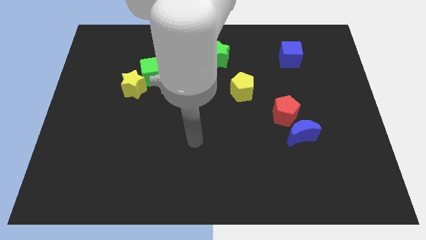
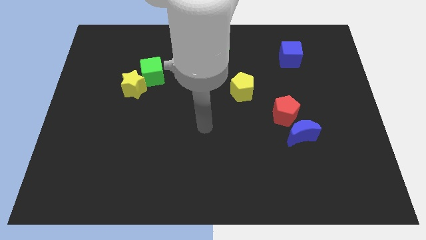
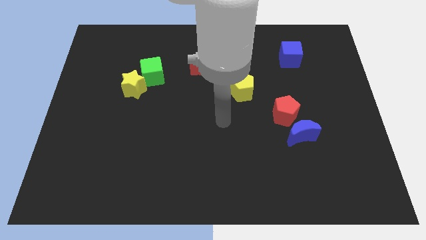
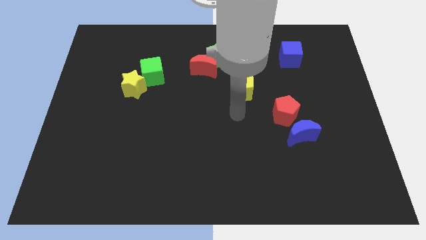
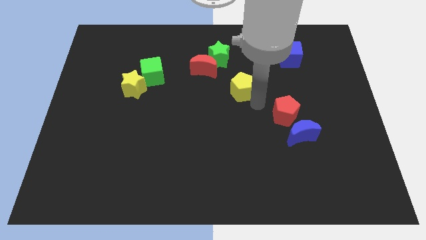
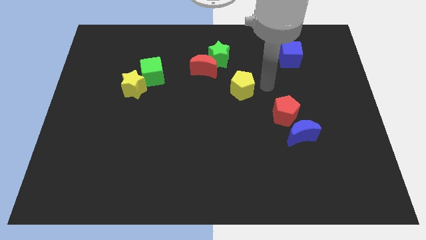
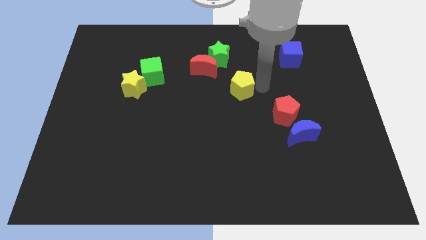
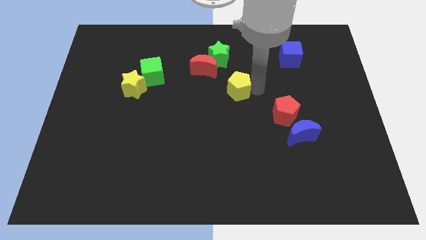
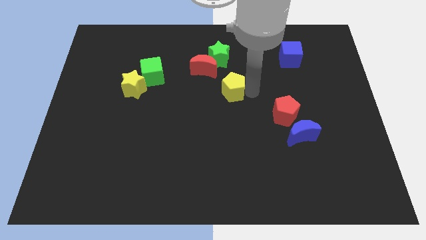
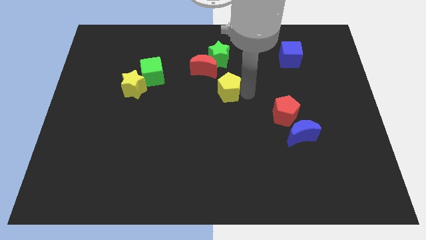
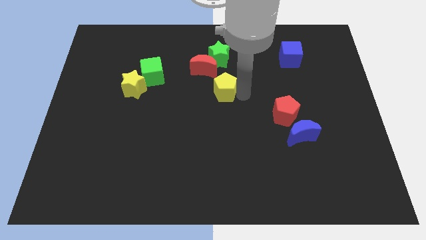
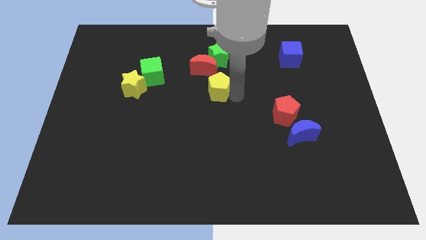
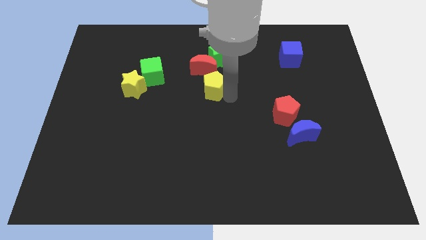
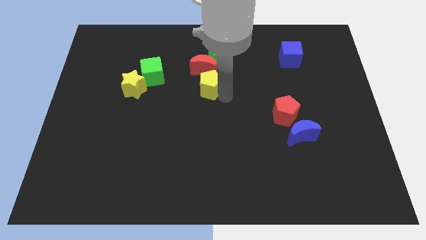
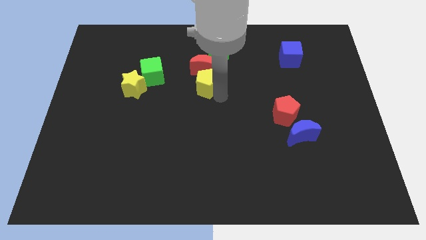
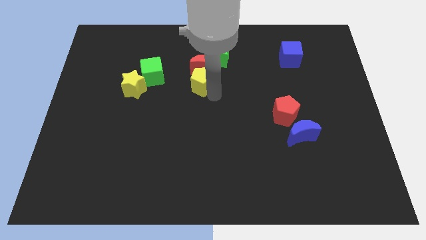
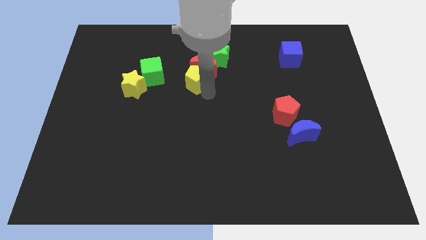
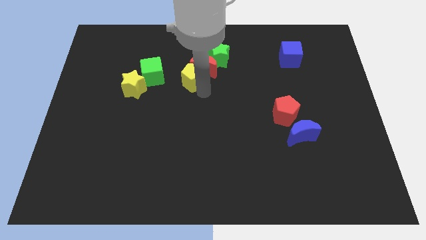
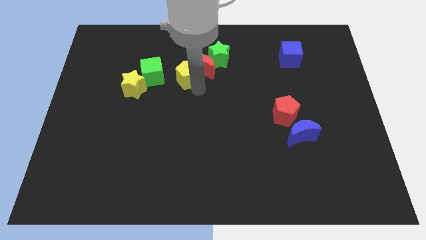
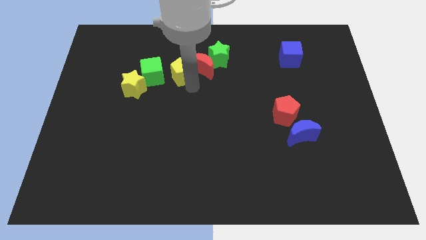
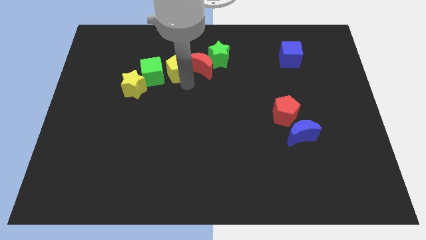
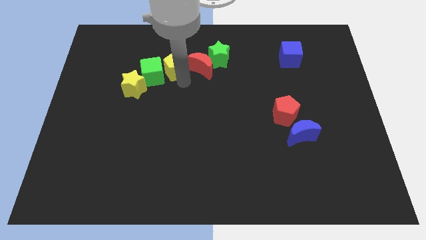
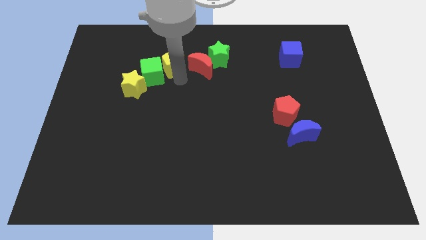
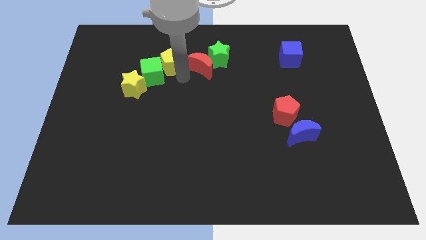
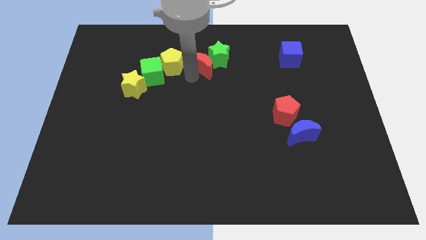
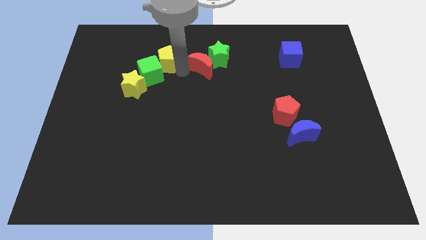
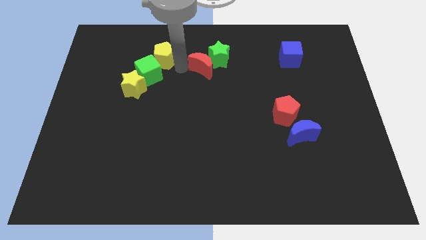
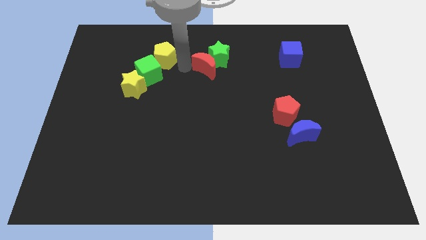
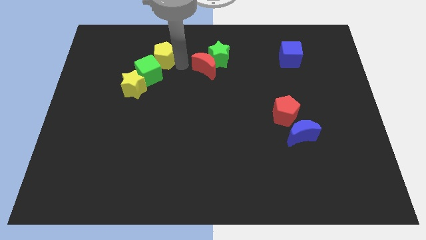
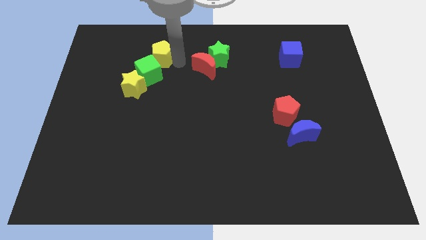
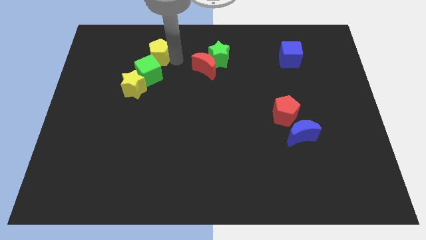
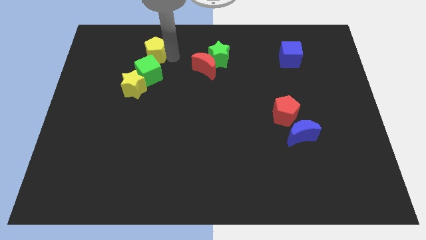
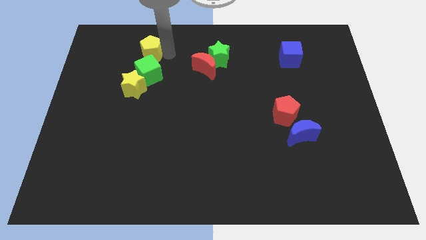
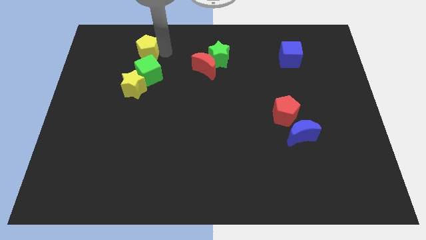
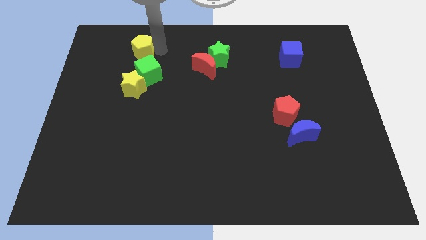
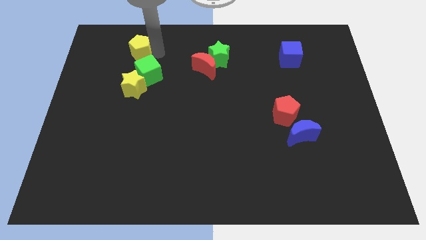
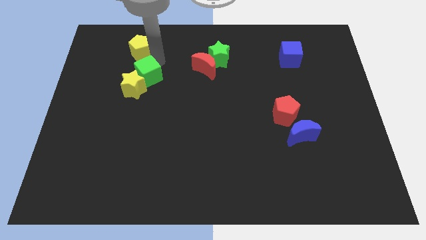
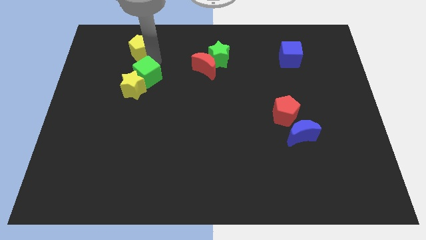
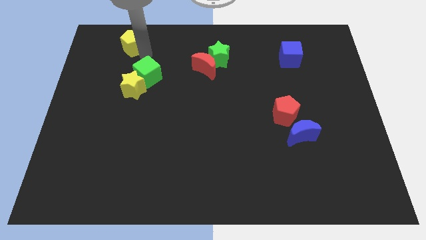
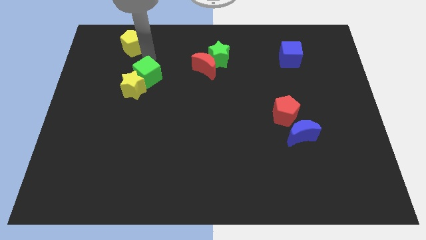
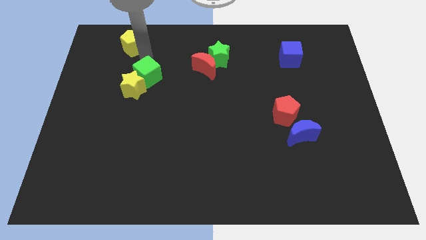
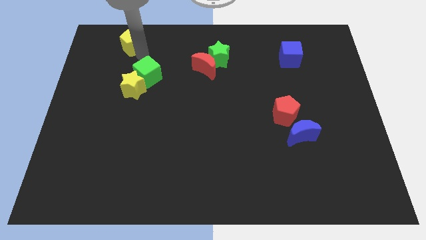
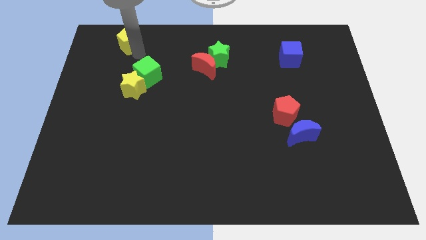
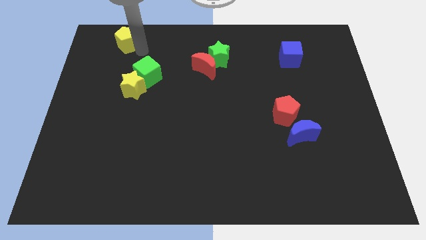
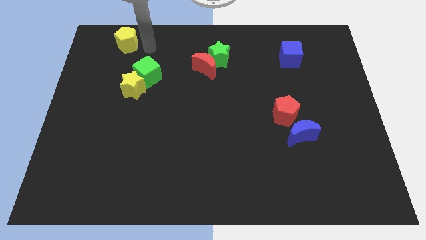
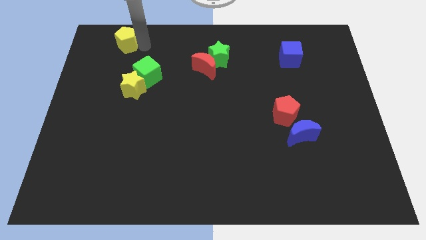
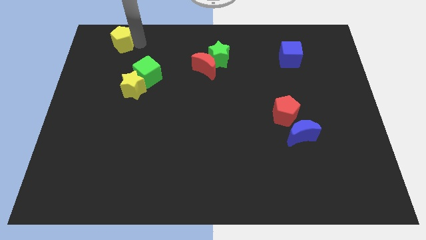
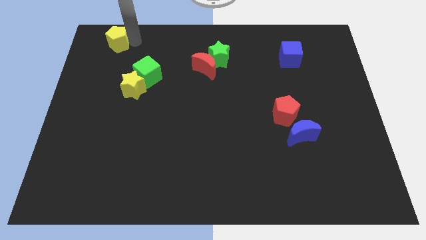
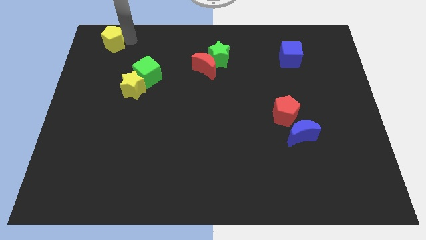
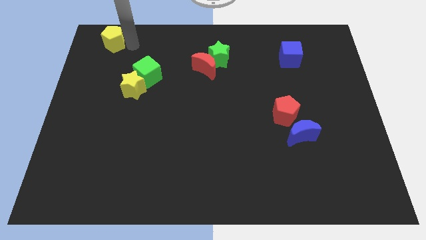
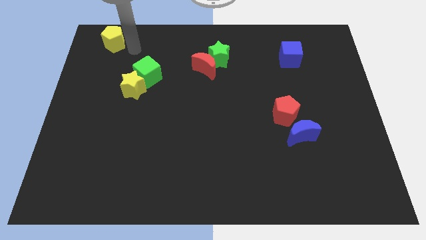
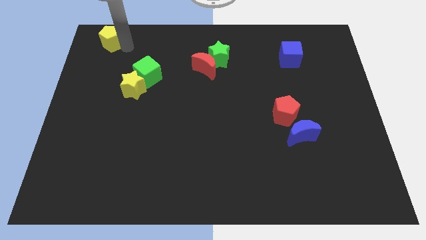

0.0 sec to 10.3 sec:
slide the yellow pentagon to the upper left corner

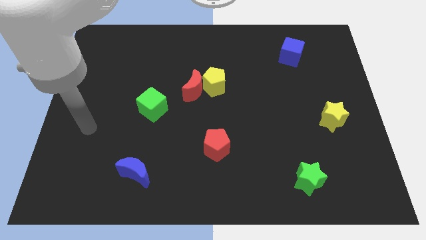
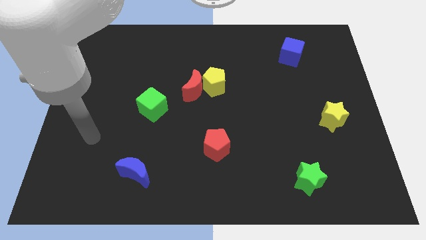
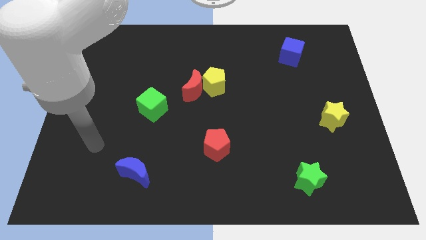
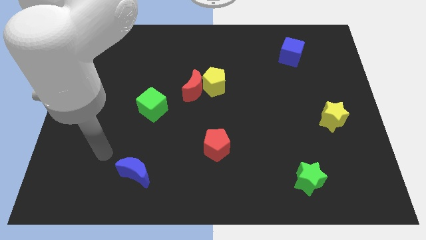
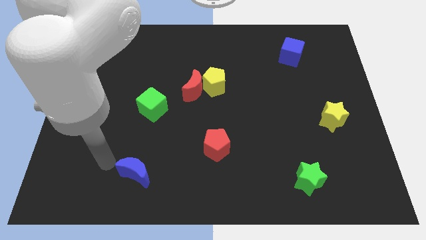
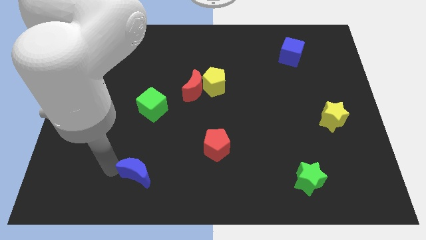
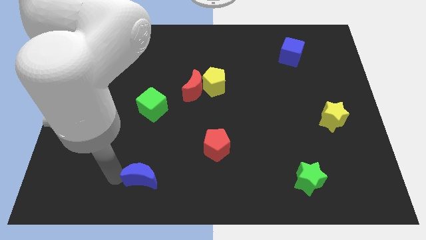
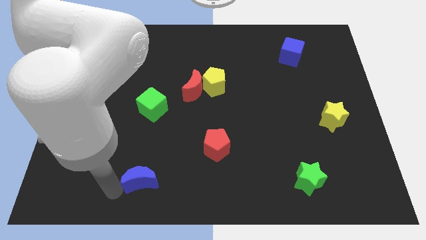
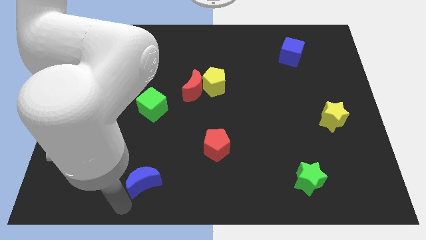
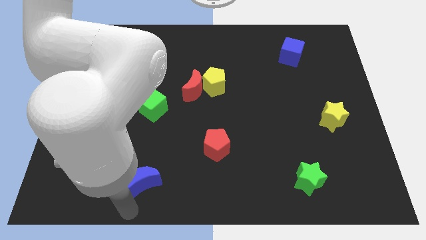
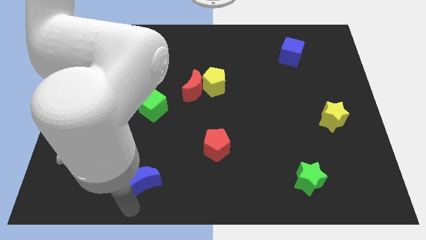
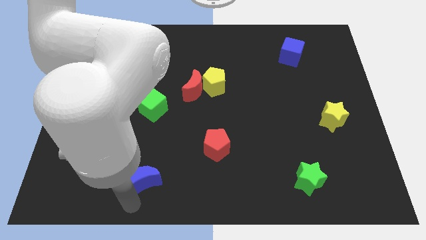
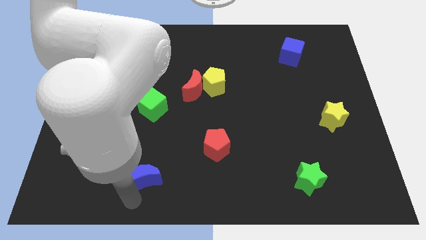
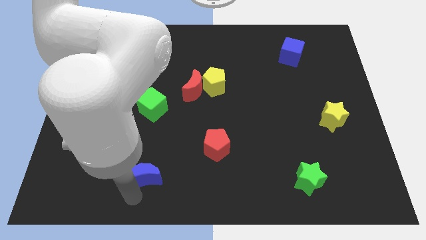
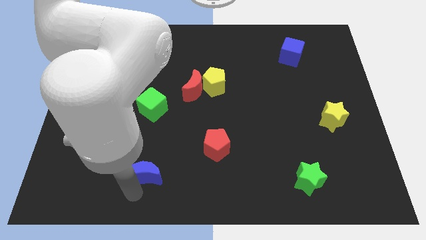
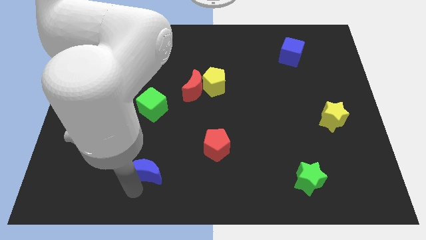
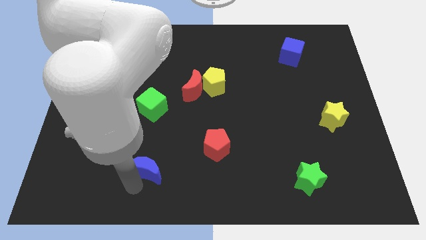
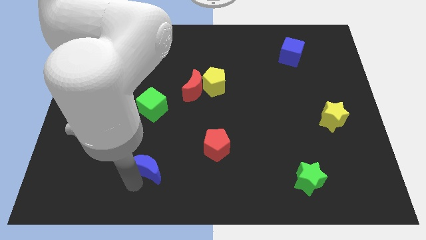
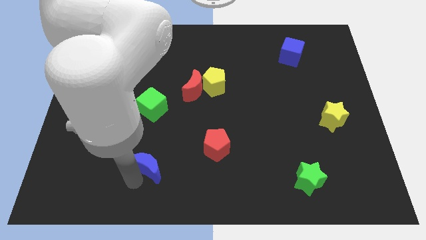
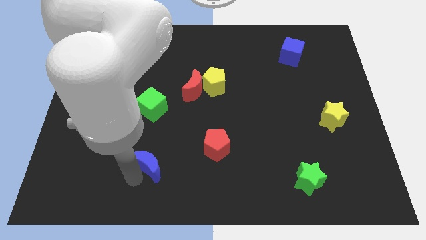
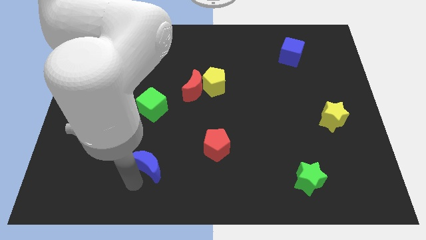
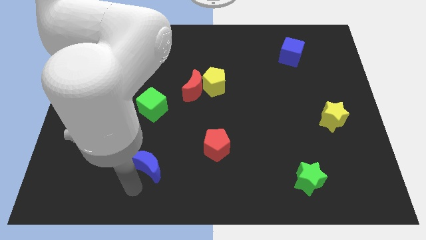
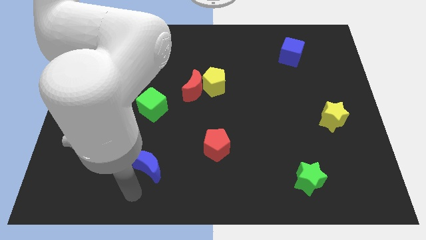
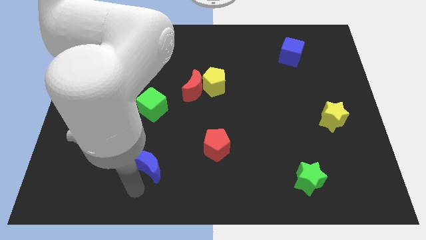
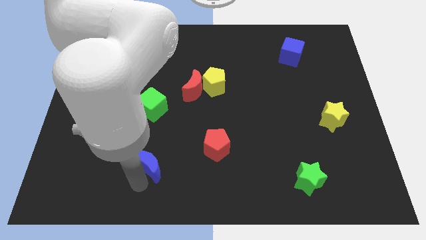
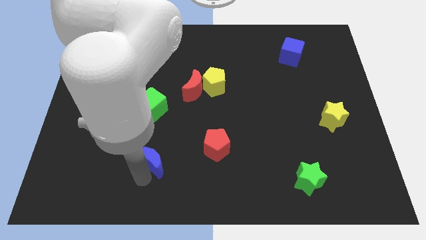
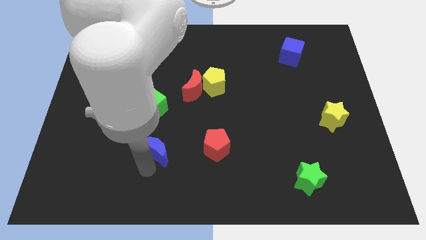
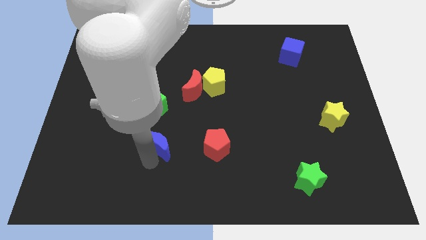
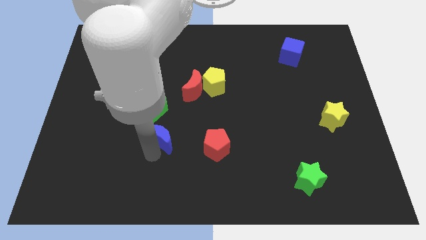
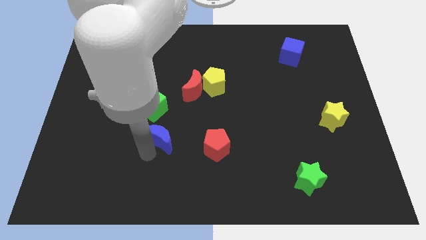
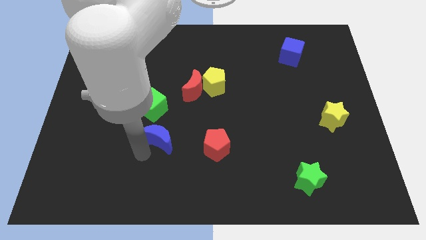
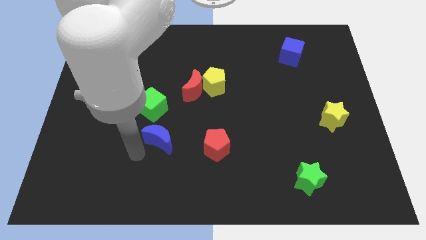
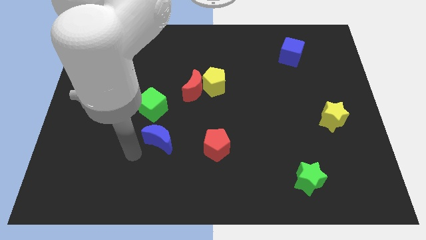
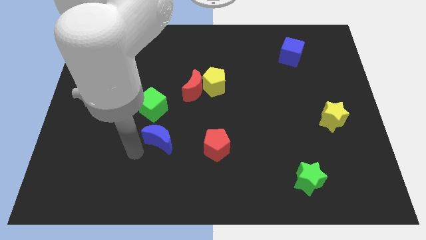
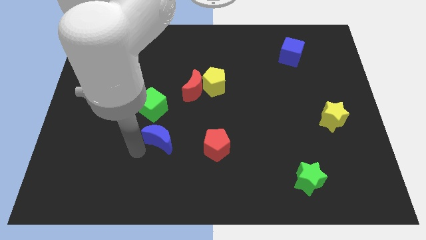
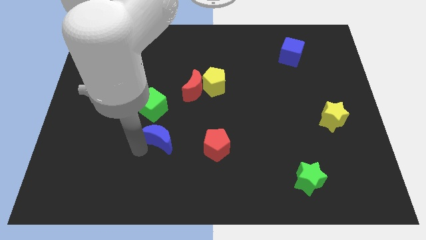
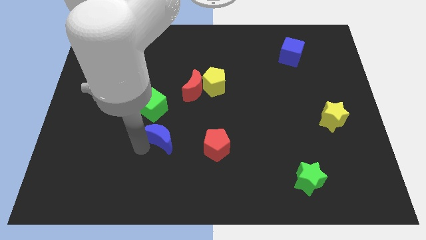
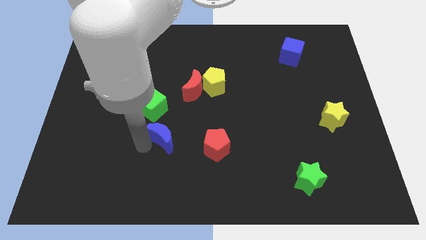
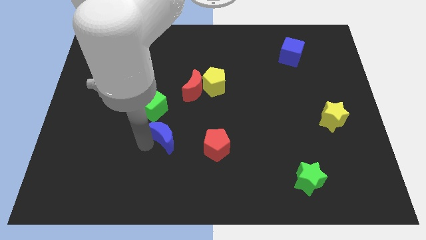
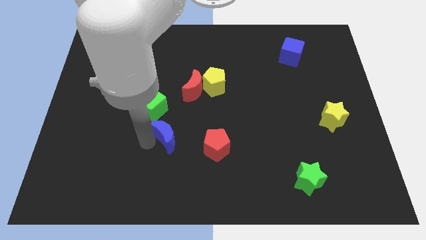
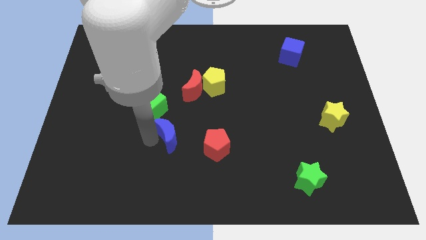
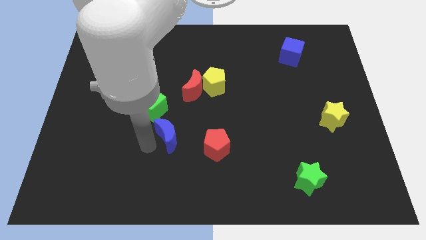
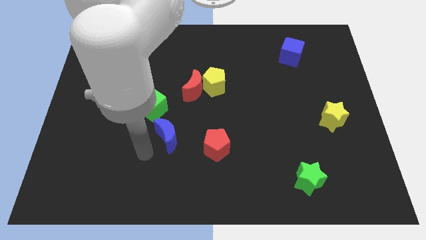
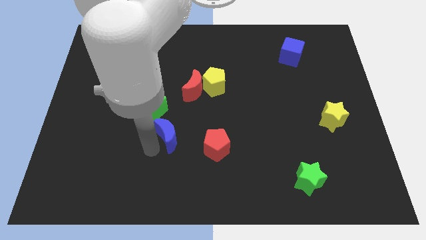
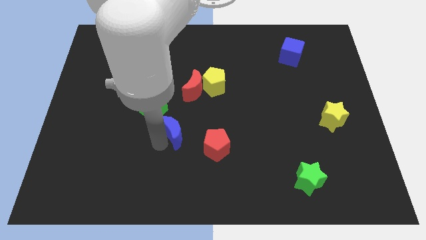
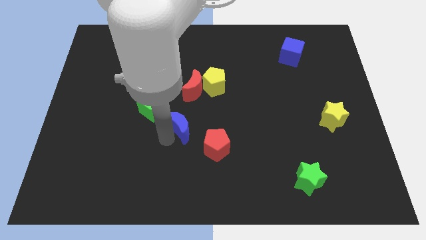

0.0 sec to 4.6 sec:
push the blue moon to the center of the board
